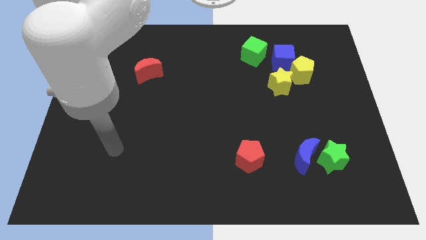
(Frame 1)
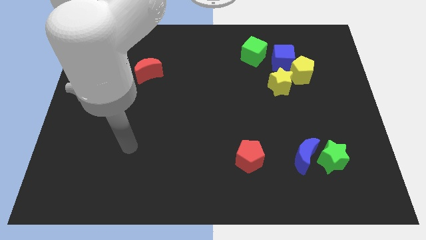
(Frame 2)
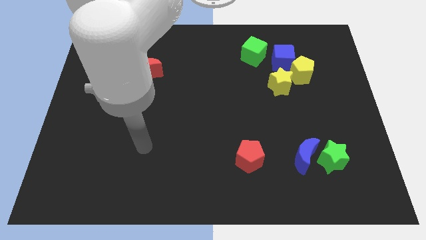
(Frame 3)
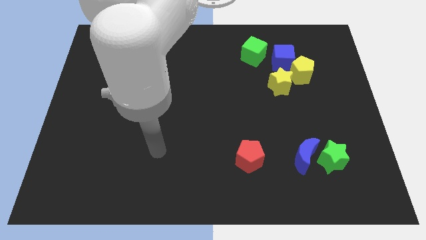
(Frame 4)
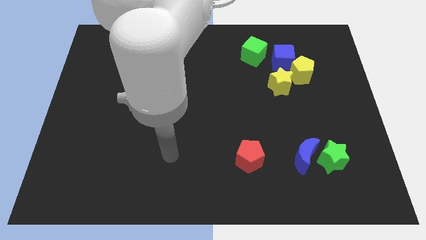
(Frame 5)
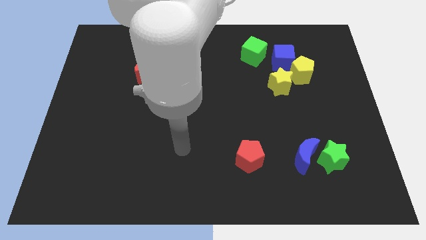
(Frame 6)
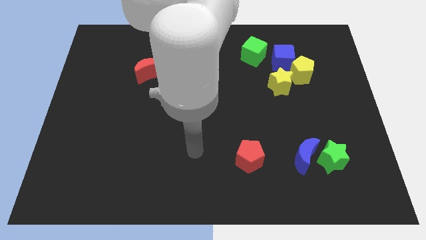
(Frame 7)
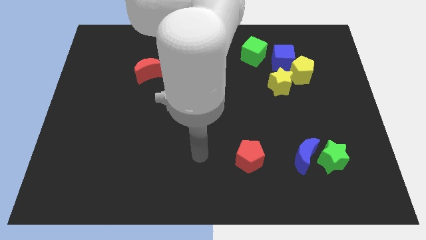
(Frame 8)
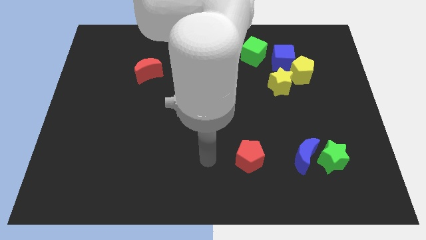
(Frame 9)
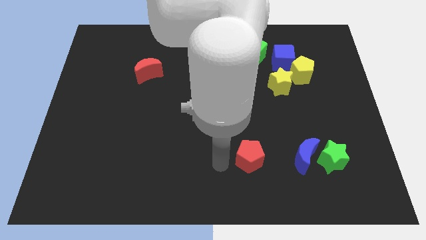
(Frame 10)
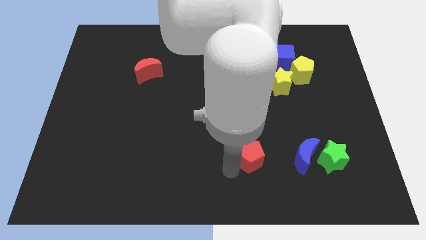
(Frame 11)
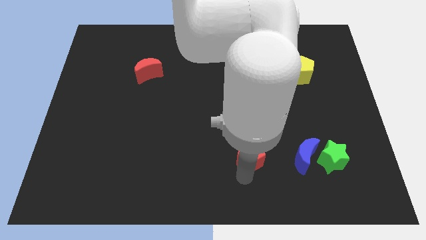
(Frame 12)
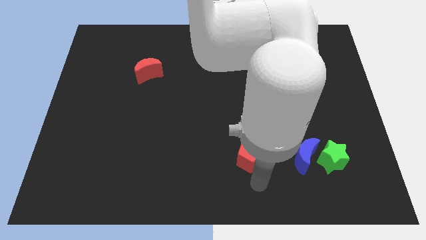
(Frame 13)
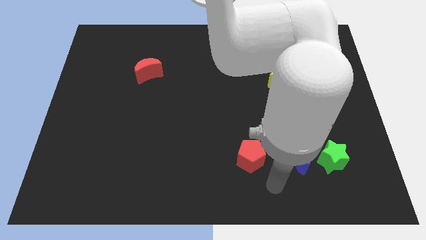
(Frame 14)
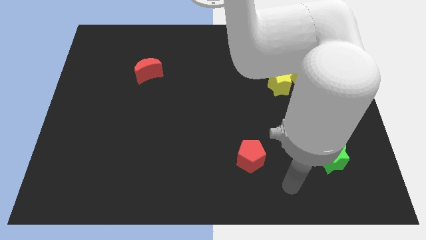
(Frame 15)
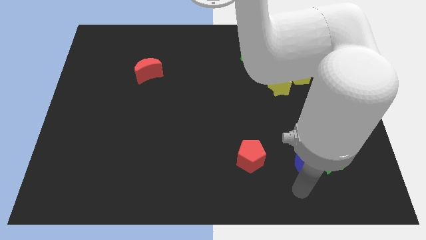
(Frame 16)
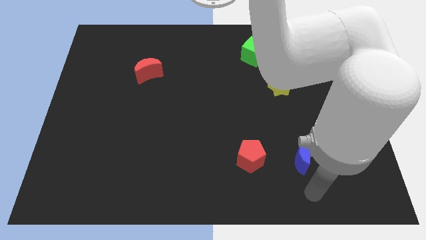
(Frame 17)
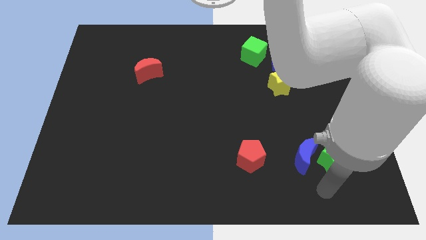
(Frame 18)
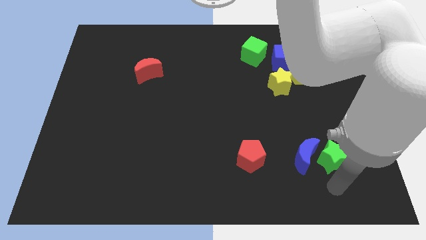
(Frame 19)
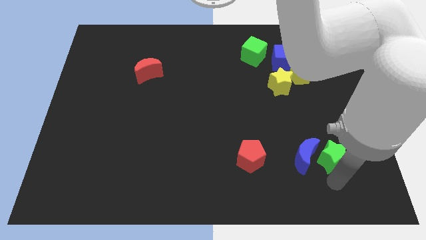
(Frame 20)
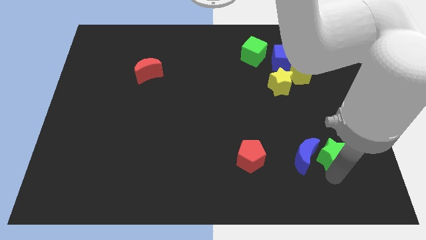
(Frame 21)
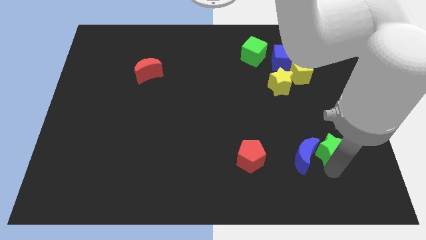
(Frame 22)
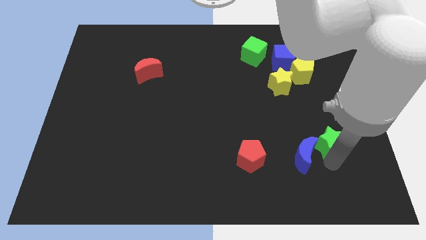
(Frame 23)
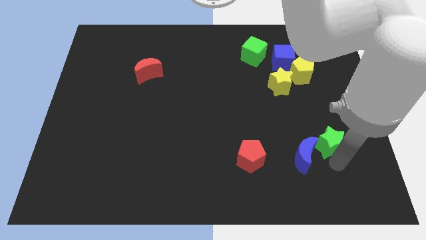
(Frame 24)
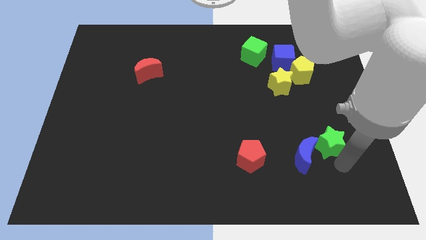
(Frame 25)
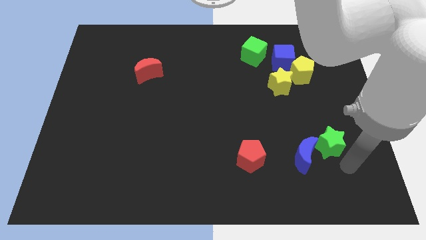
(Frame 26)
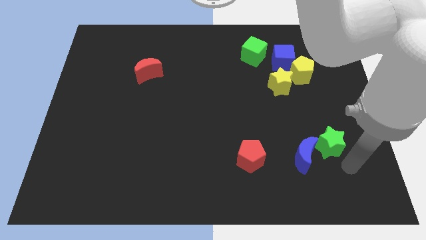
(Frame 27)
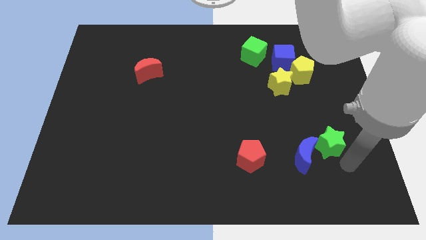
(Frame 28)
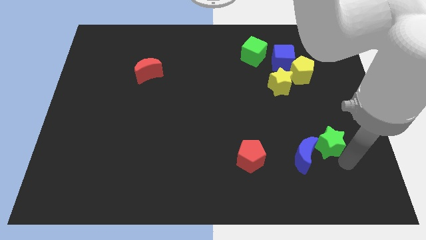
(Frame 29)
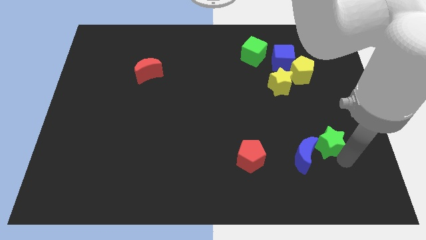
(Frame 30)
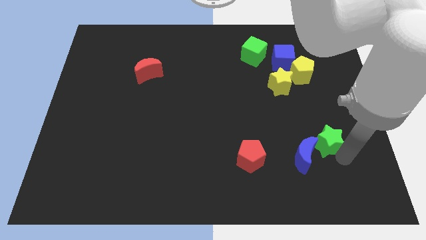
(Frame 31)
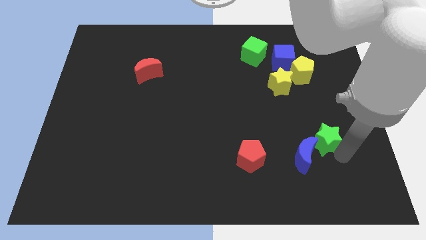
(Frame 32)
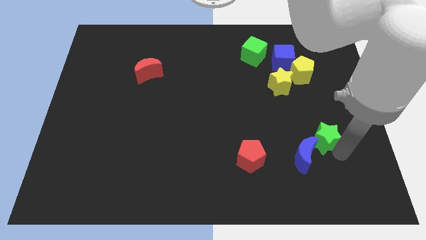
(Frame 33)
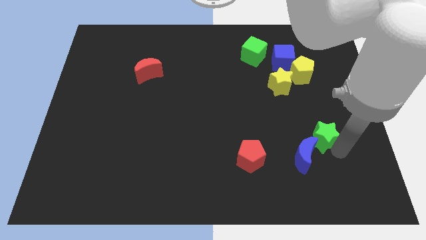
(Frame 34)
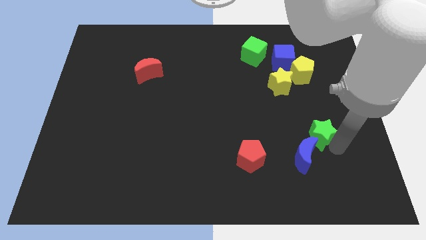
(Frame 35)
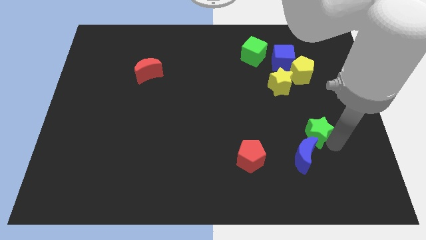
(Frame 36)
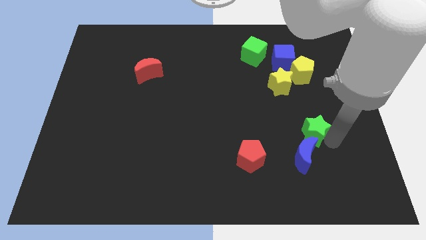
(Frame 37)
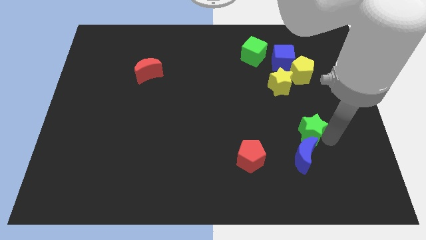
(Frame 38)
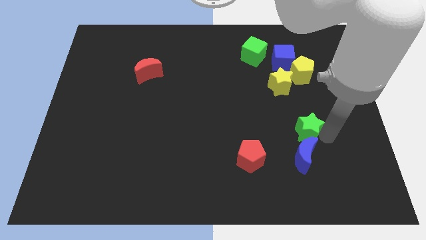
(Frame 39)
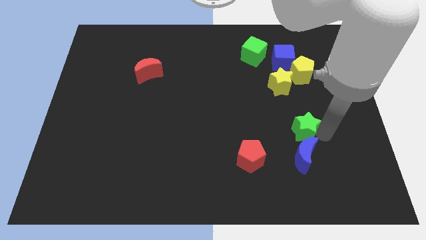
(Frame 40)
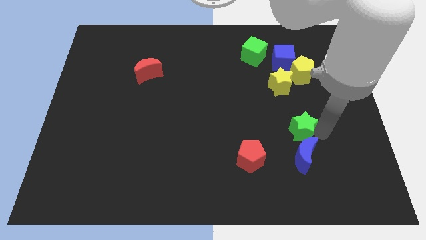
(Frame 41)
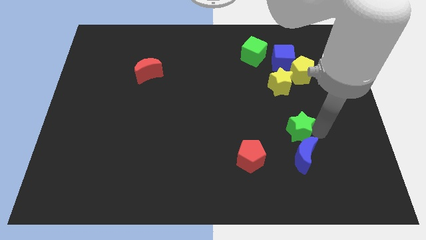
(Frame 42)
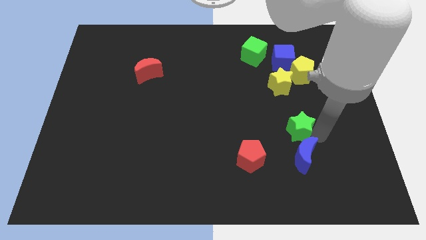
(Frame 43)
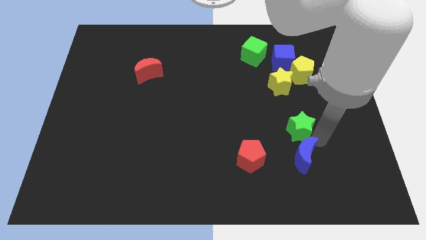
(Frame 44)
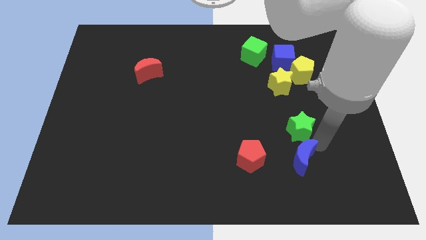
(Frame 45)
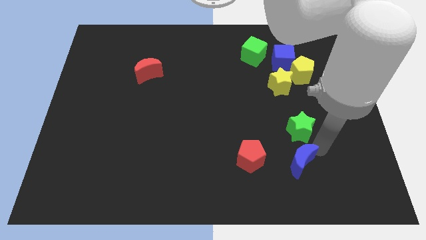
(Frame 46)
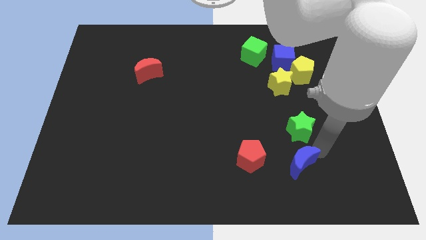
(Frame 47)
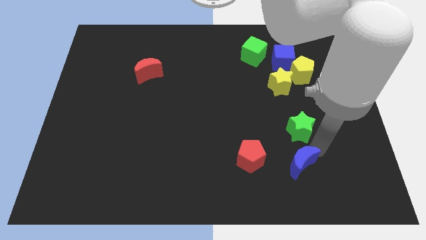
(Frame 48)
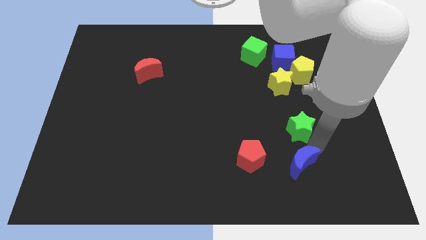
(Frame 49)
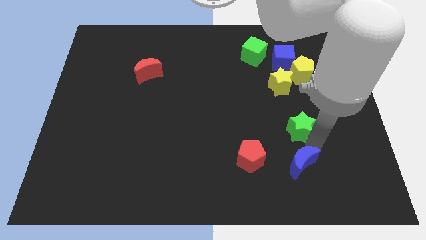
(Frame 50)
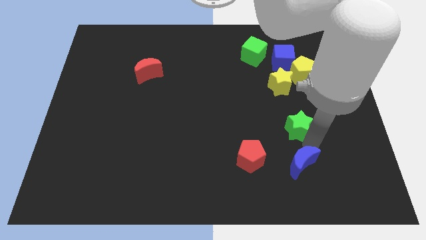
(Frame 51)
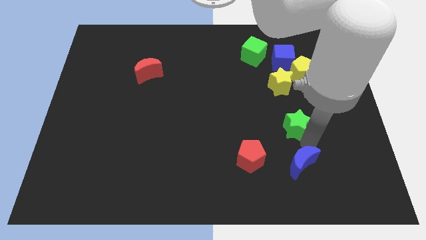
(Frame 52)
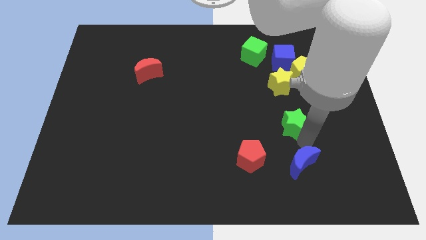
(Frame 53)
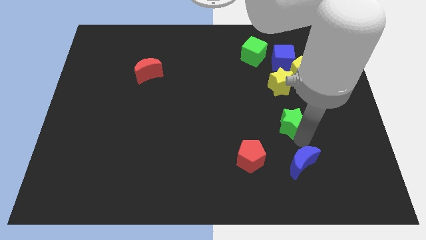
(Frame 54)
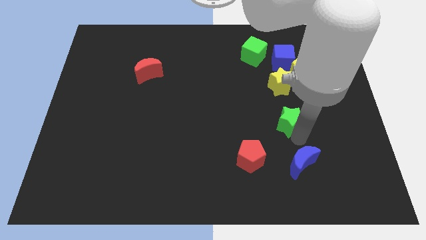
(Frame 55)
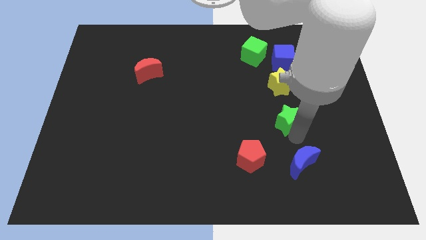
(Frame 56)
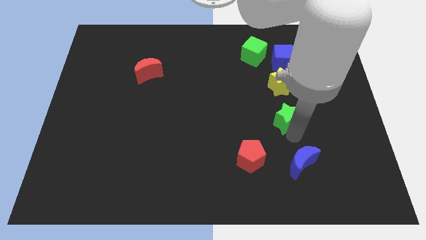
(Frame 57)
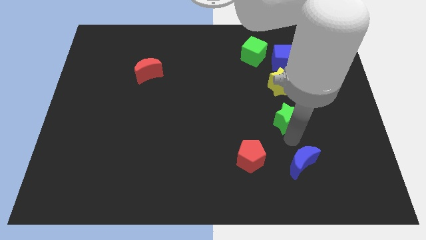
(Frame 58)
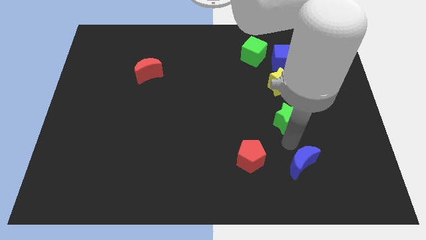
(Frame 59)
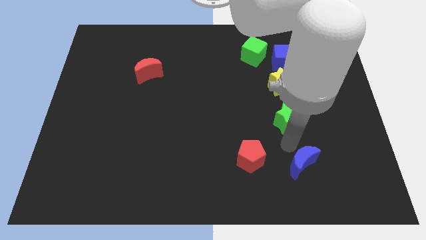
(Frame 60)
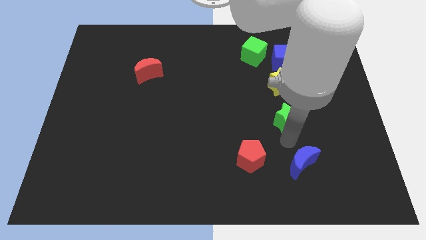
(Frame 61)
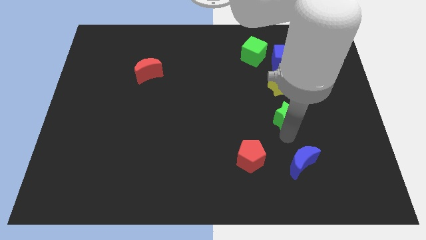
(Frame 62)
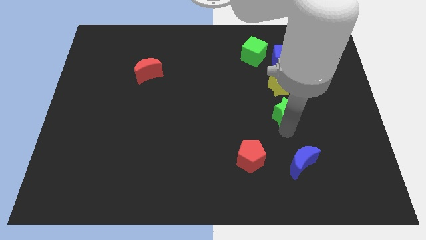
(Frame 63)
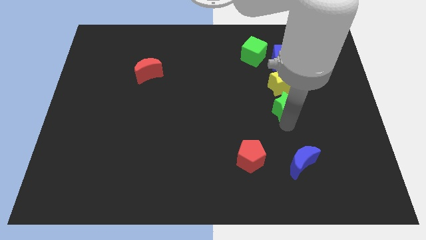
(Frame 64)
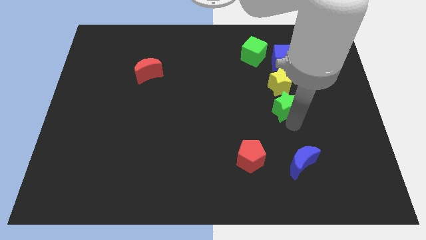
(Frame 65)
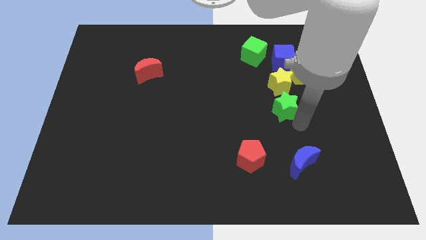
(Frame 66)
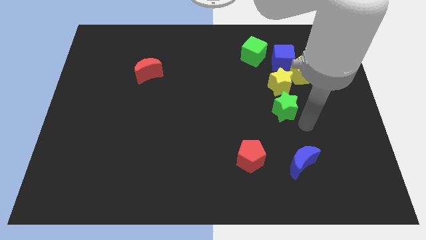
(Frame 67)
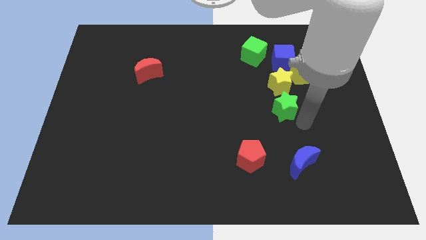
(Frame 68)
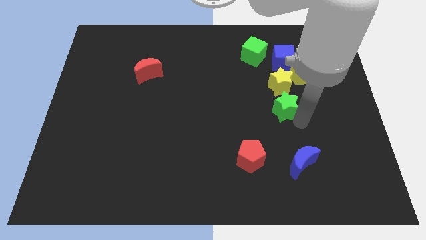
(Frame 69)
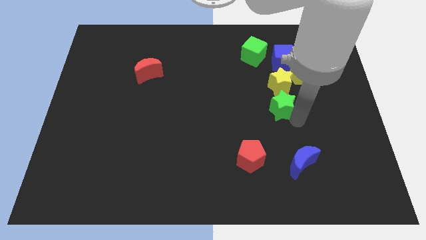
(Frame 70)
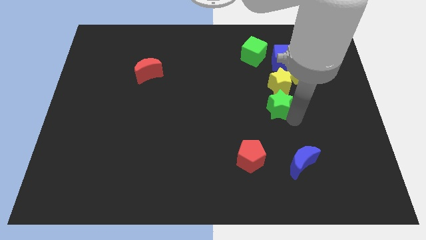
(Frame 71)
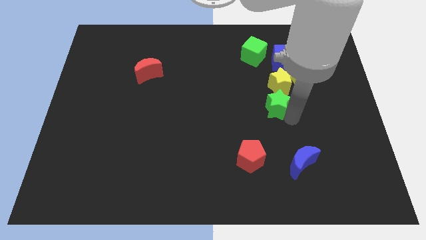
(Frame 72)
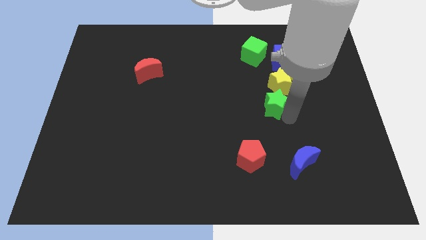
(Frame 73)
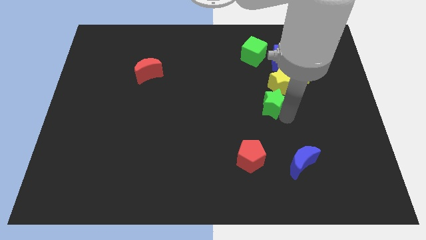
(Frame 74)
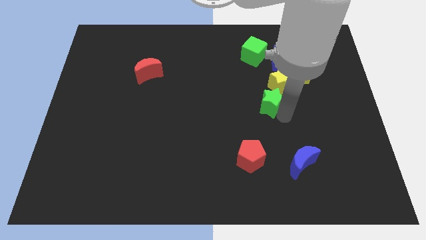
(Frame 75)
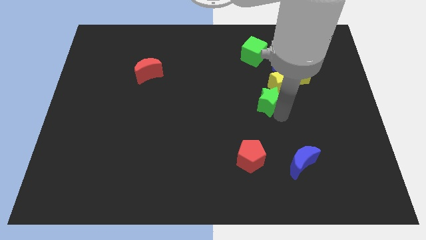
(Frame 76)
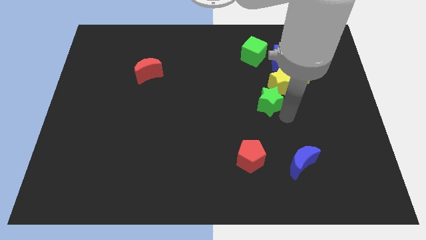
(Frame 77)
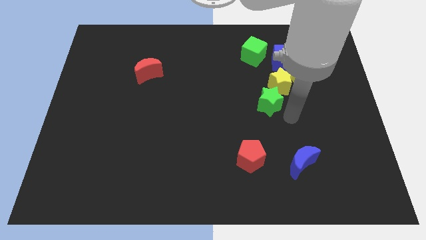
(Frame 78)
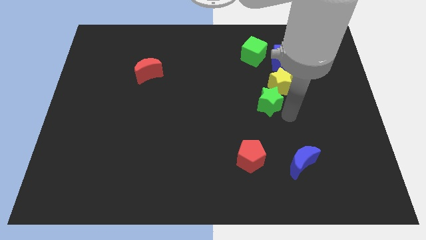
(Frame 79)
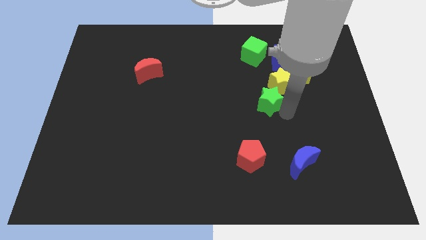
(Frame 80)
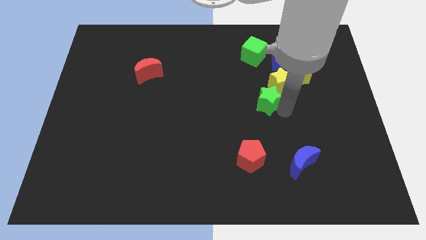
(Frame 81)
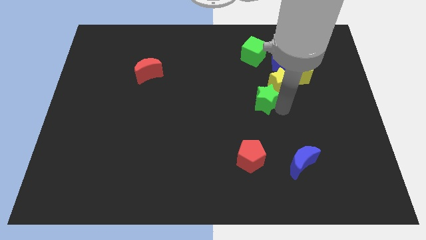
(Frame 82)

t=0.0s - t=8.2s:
move the green star upwards and to the left
